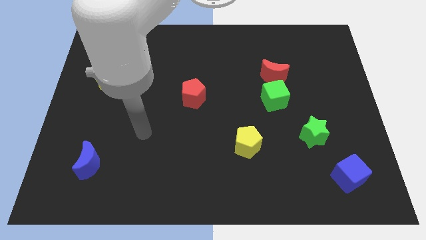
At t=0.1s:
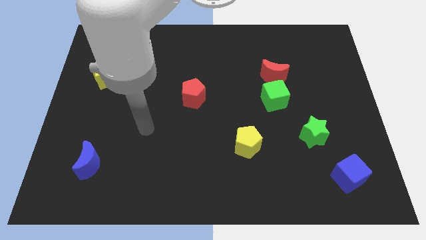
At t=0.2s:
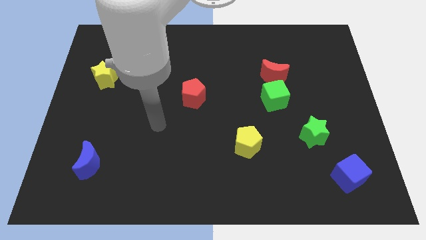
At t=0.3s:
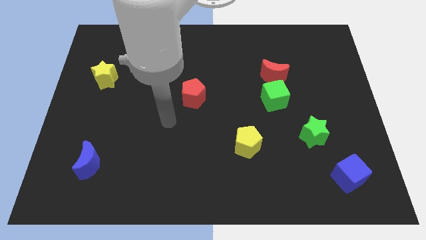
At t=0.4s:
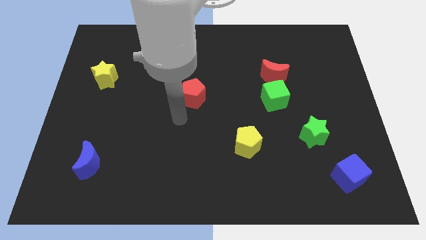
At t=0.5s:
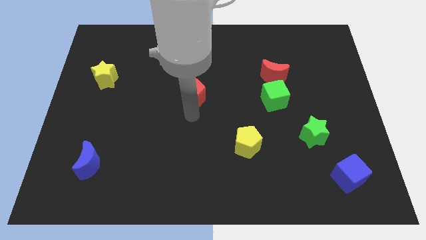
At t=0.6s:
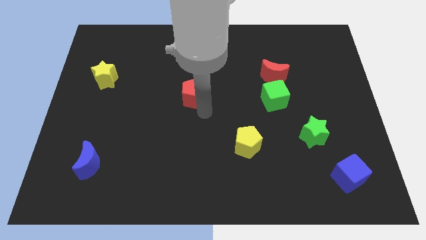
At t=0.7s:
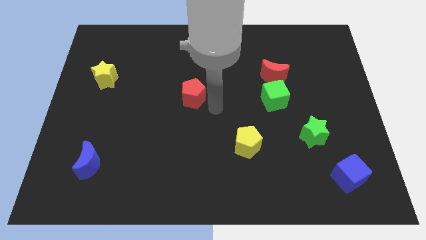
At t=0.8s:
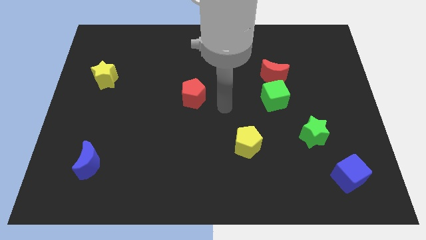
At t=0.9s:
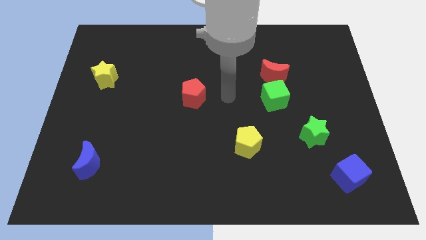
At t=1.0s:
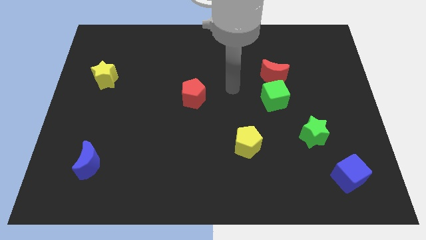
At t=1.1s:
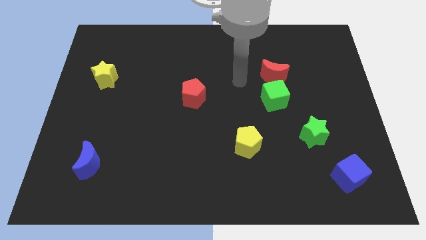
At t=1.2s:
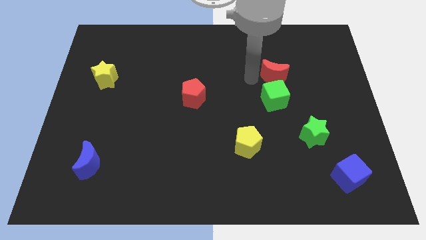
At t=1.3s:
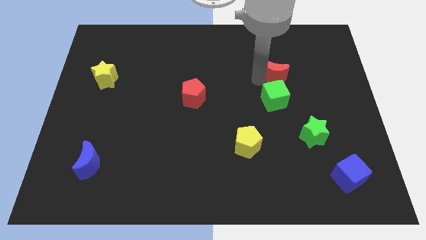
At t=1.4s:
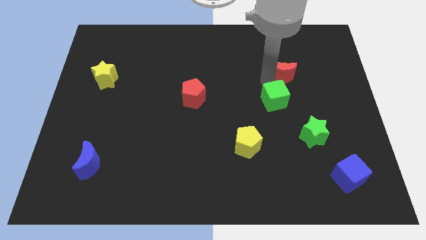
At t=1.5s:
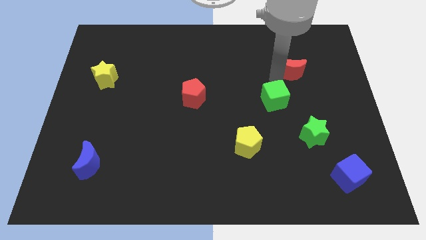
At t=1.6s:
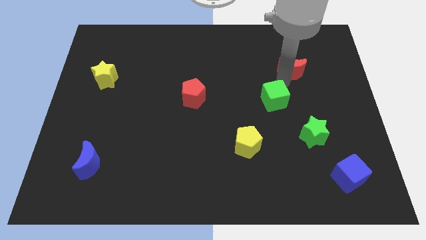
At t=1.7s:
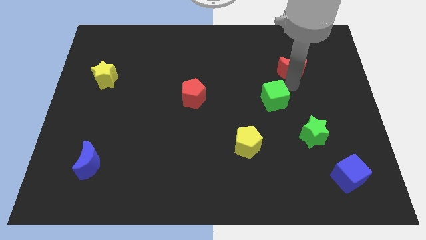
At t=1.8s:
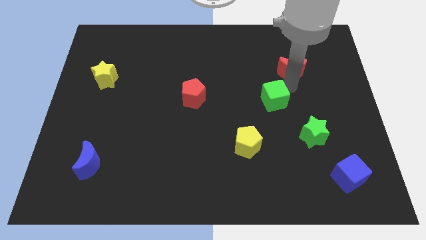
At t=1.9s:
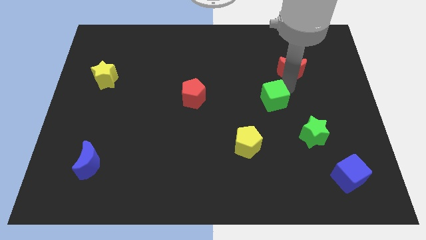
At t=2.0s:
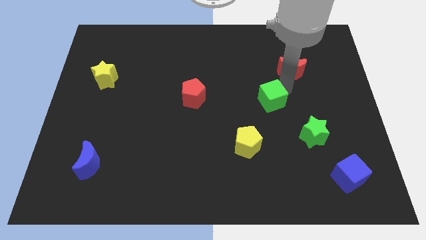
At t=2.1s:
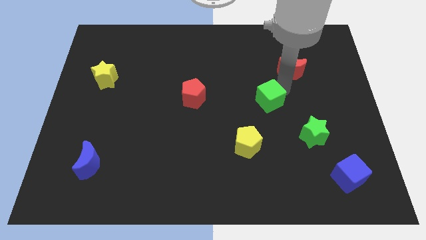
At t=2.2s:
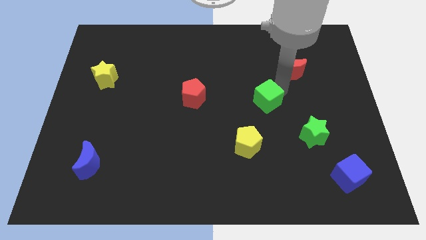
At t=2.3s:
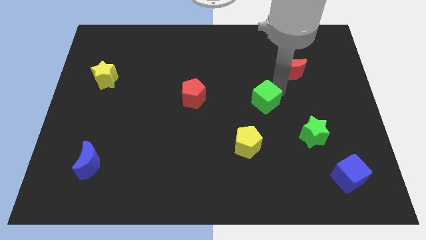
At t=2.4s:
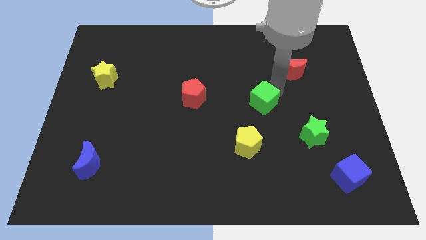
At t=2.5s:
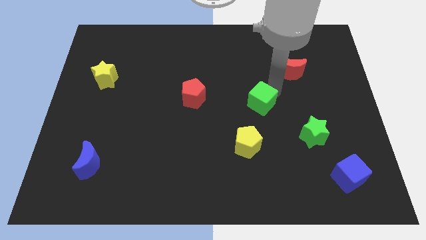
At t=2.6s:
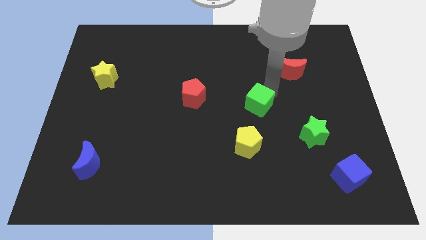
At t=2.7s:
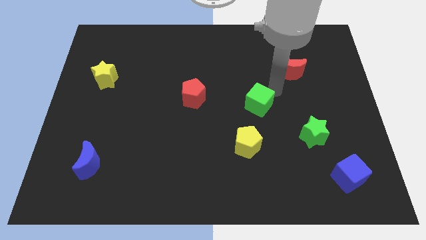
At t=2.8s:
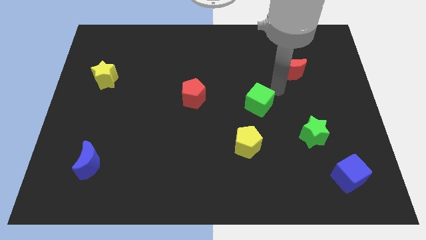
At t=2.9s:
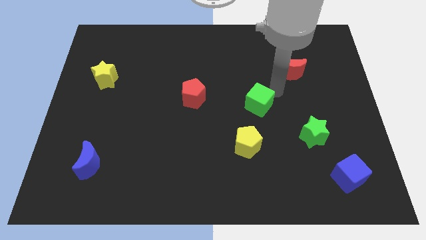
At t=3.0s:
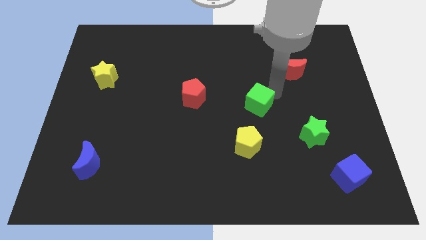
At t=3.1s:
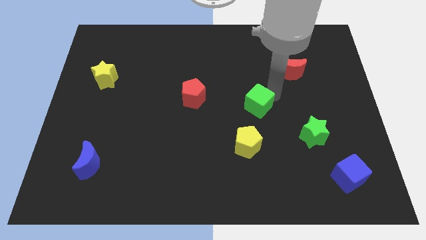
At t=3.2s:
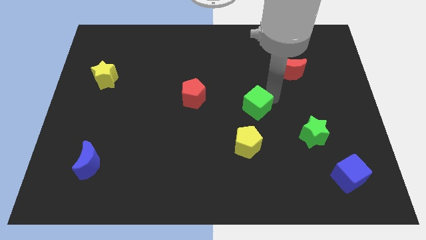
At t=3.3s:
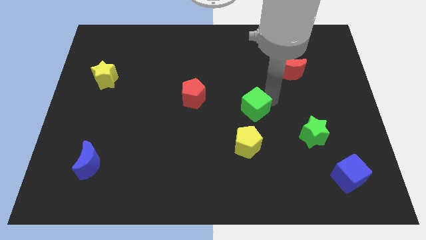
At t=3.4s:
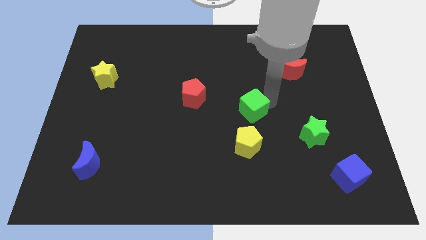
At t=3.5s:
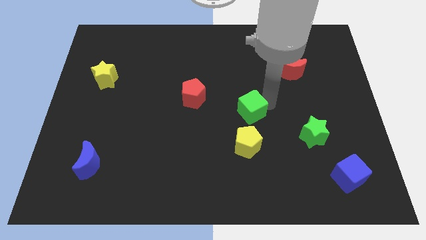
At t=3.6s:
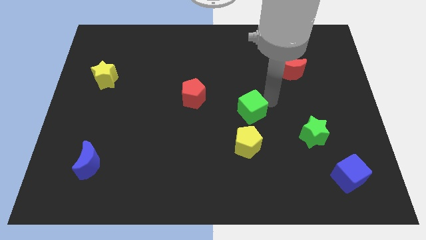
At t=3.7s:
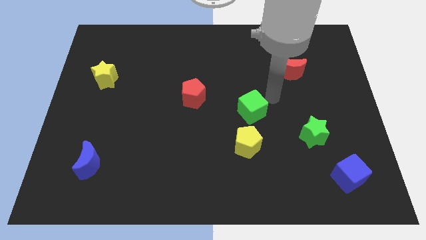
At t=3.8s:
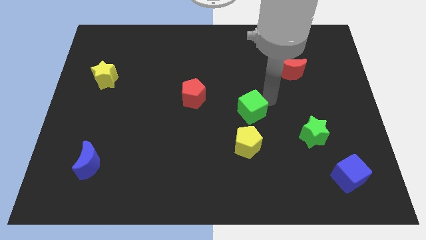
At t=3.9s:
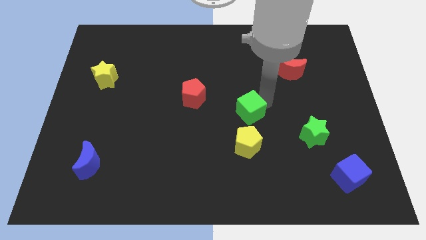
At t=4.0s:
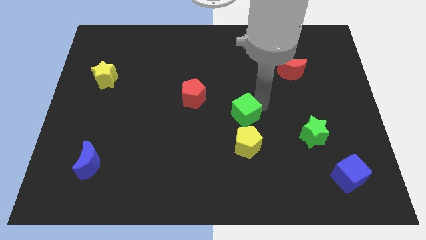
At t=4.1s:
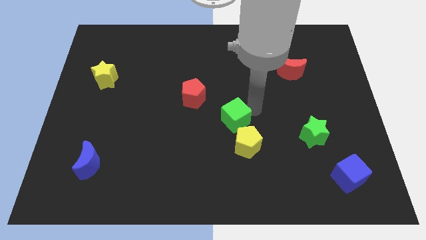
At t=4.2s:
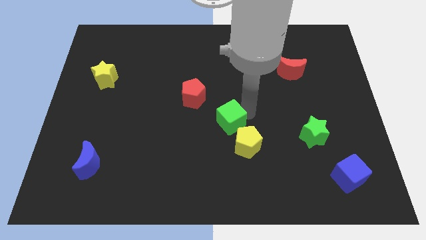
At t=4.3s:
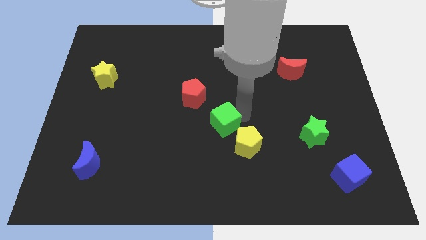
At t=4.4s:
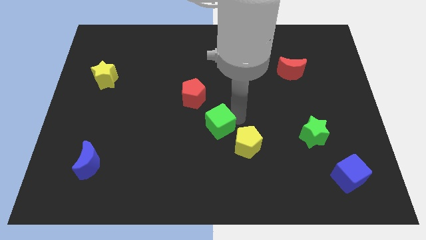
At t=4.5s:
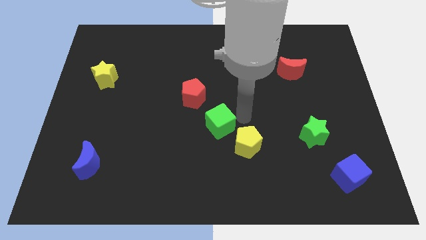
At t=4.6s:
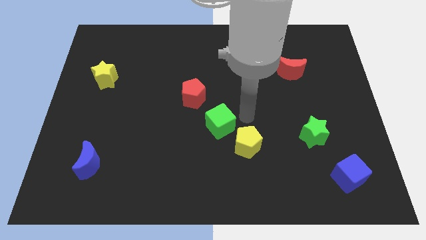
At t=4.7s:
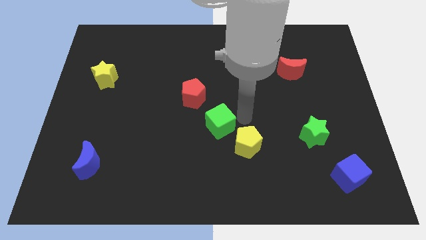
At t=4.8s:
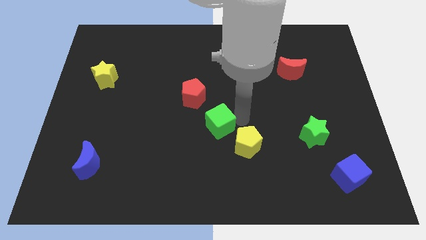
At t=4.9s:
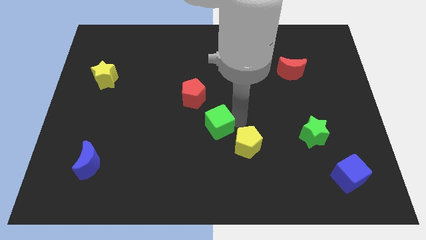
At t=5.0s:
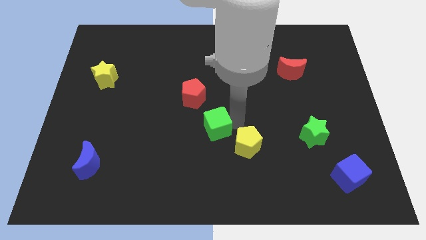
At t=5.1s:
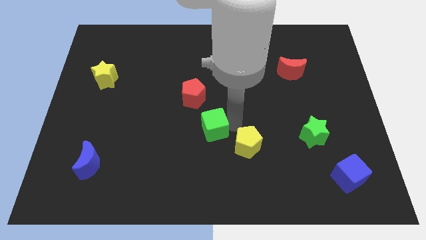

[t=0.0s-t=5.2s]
slide the green cube to the bottom side of the red pentagon

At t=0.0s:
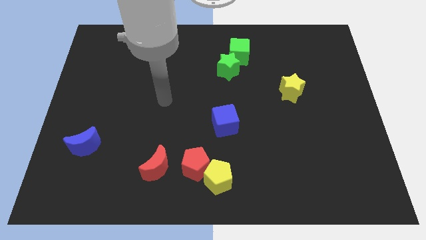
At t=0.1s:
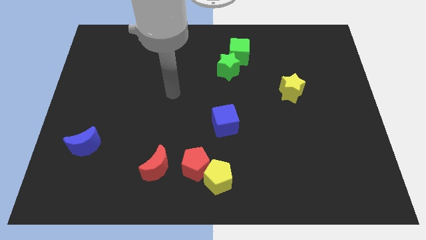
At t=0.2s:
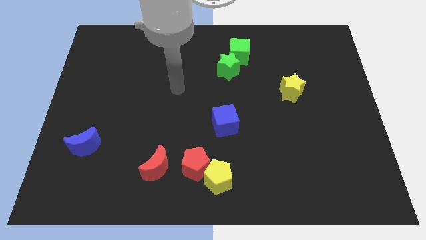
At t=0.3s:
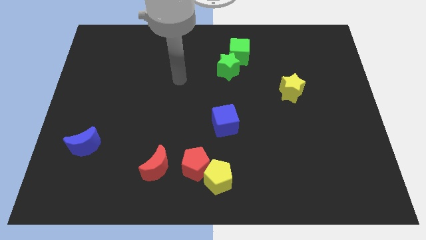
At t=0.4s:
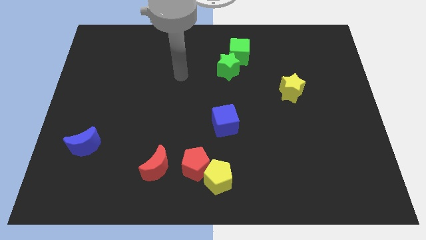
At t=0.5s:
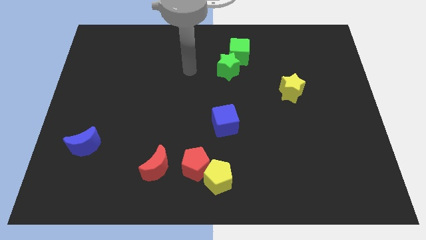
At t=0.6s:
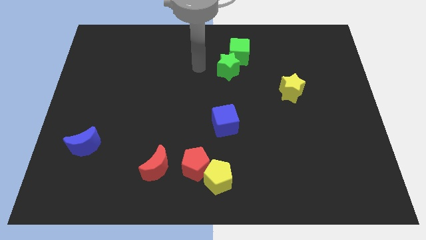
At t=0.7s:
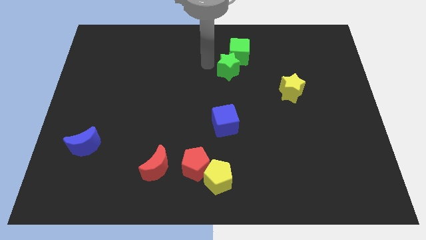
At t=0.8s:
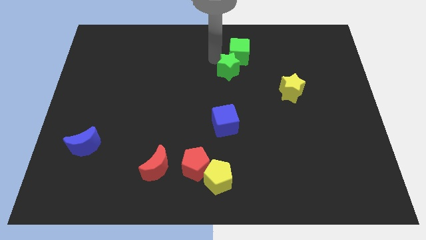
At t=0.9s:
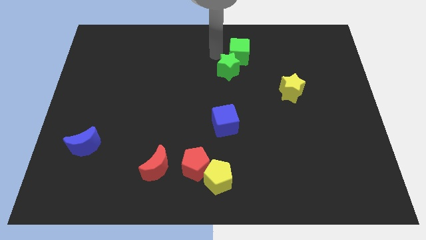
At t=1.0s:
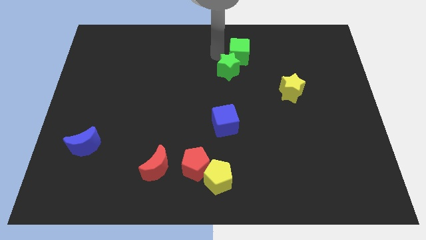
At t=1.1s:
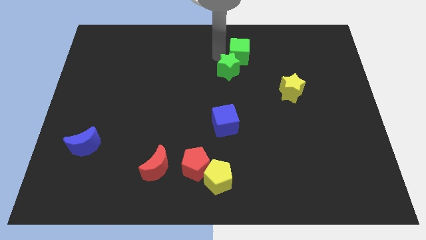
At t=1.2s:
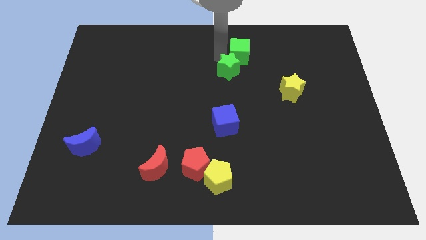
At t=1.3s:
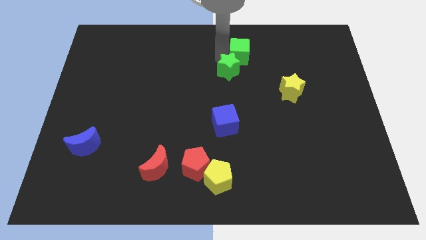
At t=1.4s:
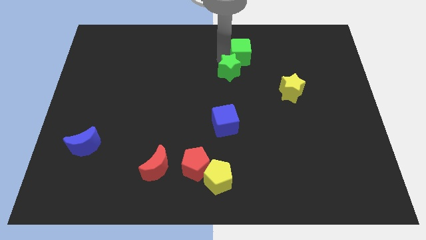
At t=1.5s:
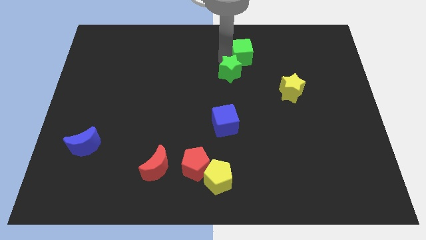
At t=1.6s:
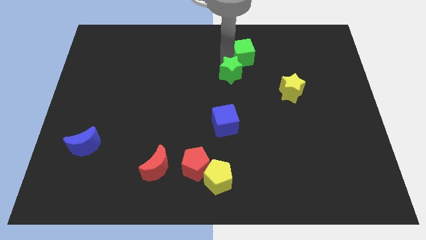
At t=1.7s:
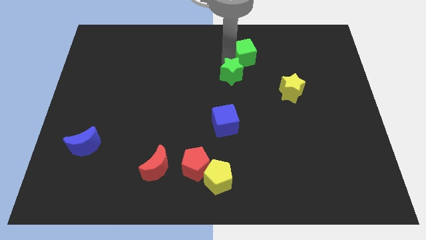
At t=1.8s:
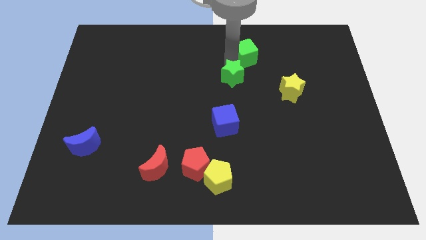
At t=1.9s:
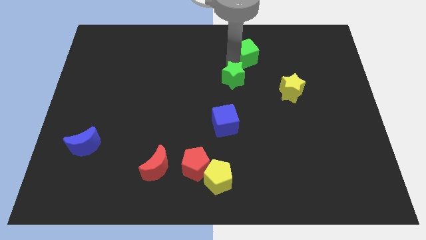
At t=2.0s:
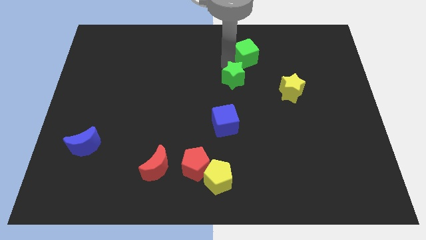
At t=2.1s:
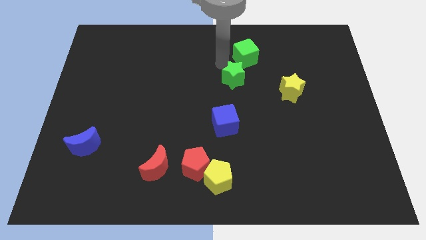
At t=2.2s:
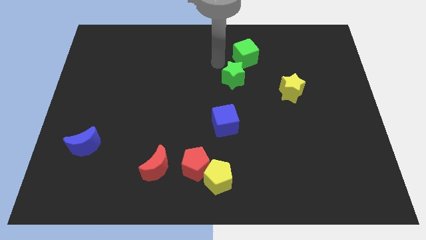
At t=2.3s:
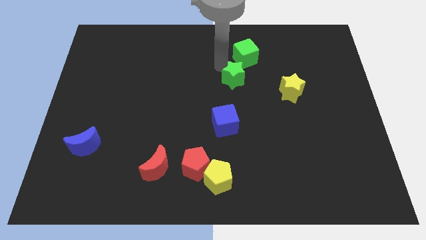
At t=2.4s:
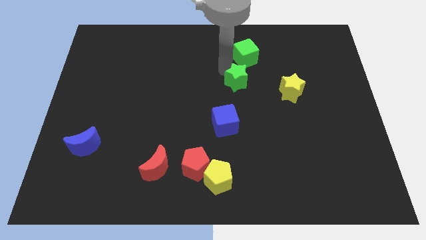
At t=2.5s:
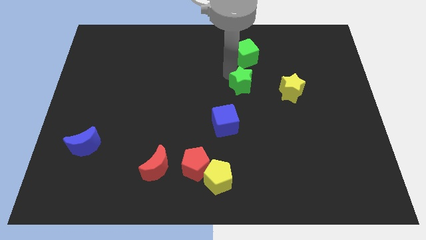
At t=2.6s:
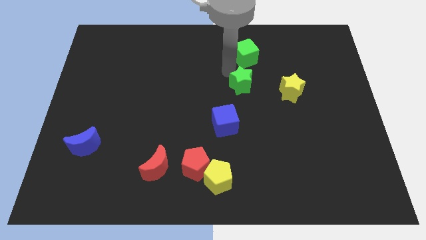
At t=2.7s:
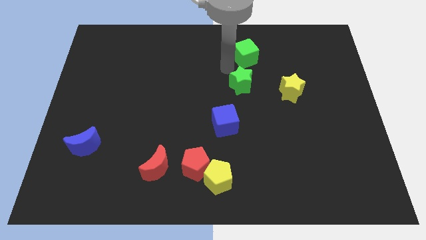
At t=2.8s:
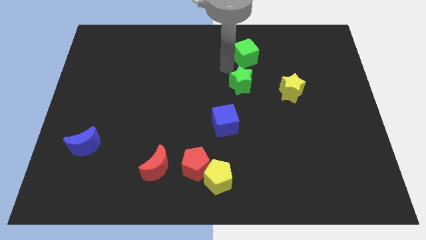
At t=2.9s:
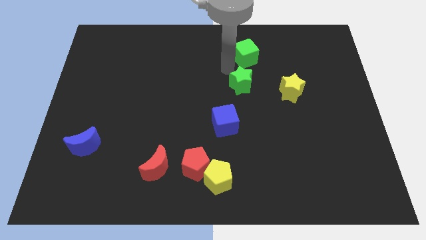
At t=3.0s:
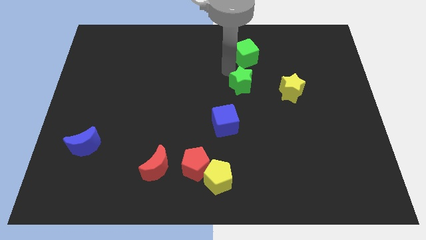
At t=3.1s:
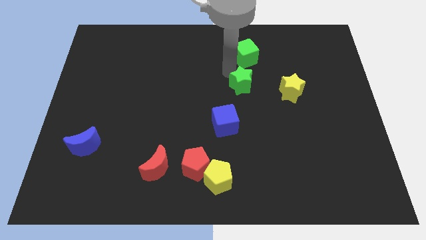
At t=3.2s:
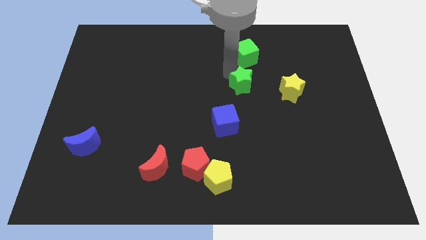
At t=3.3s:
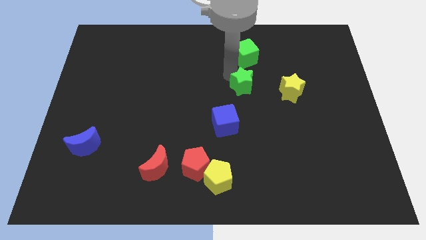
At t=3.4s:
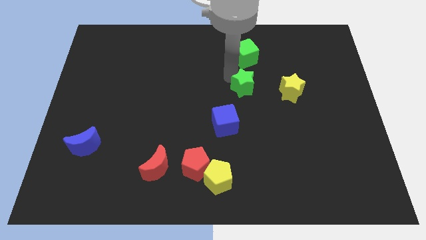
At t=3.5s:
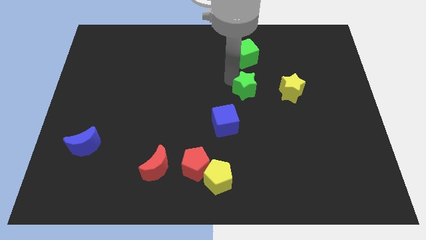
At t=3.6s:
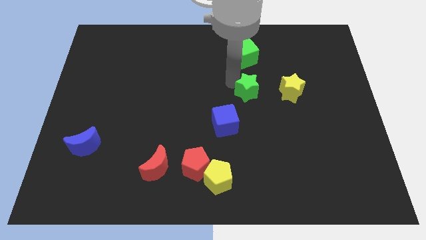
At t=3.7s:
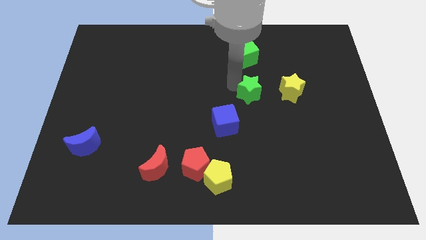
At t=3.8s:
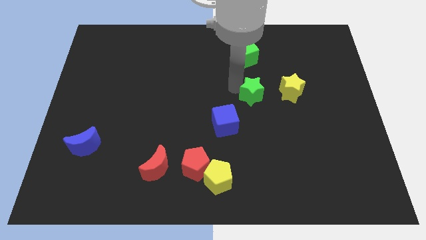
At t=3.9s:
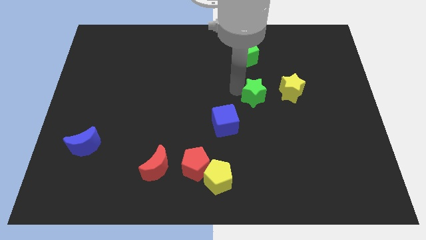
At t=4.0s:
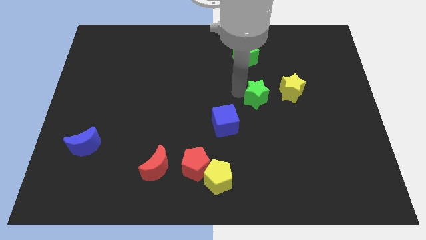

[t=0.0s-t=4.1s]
move the green star diagonally down and to the left of the yellow star
